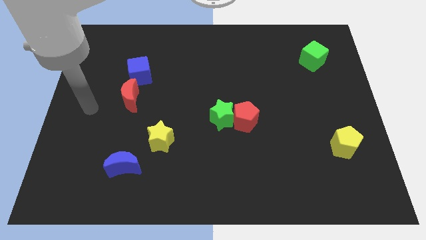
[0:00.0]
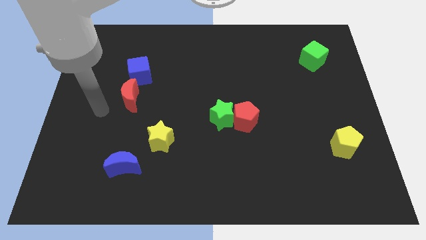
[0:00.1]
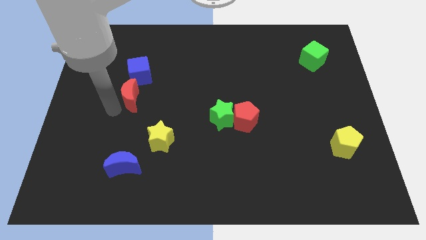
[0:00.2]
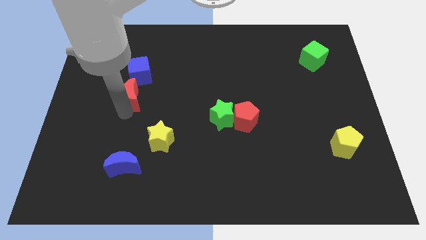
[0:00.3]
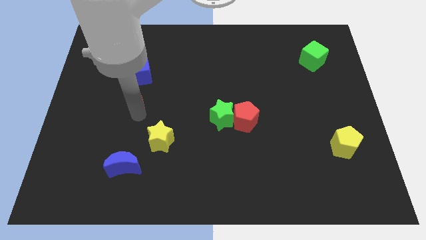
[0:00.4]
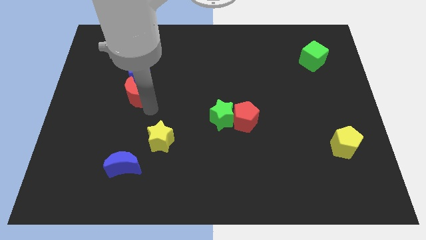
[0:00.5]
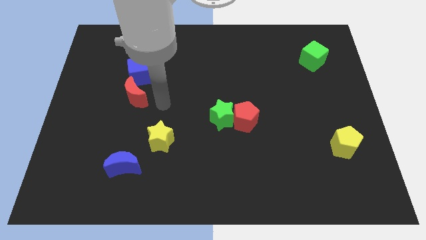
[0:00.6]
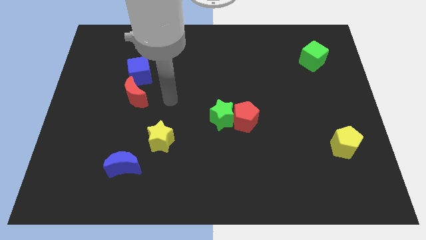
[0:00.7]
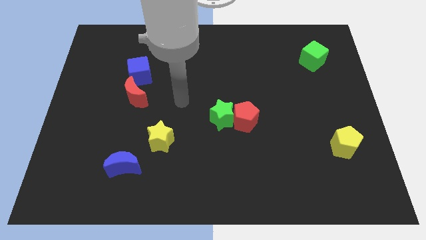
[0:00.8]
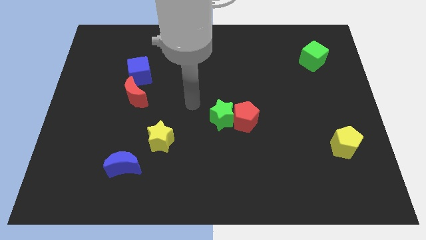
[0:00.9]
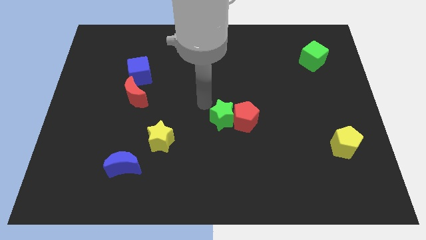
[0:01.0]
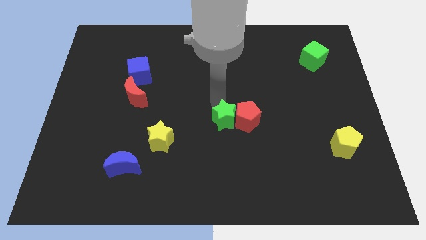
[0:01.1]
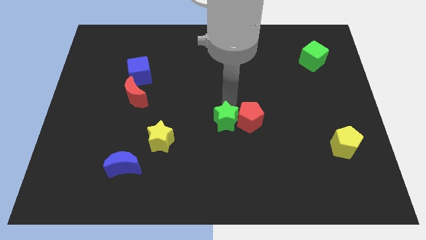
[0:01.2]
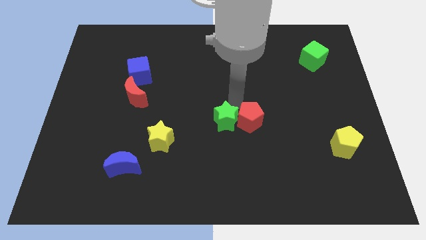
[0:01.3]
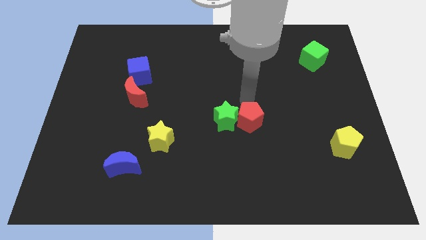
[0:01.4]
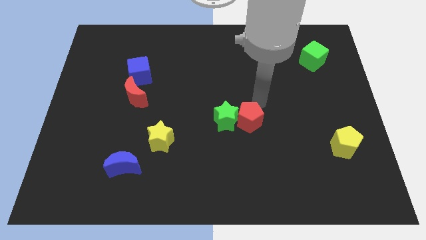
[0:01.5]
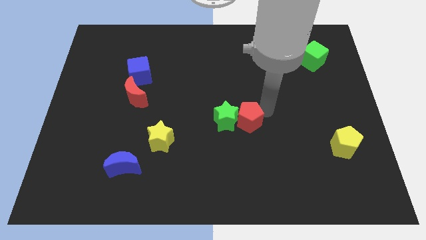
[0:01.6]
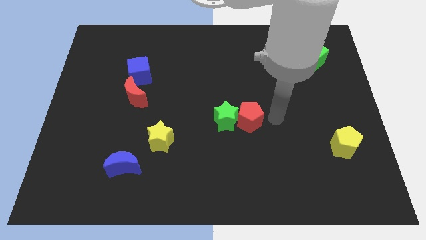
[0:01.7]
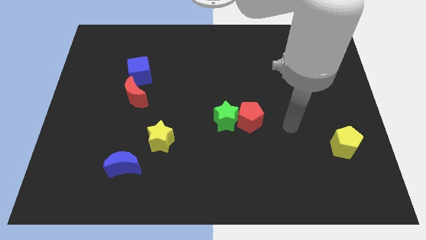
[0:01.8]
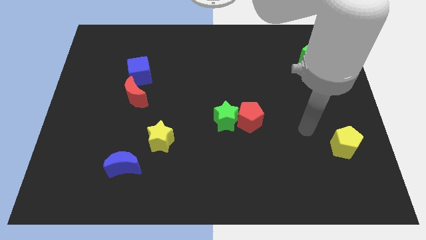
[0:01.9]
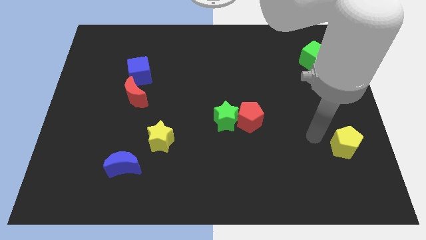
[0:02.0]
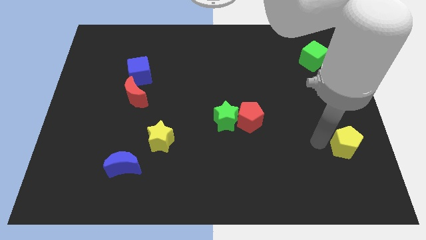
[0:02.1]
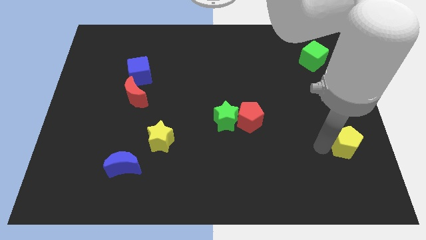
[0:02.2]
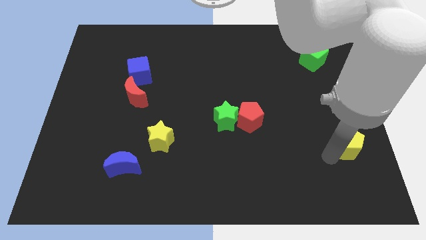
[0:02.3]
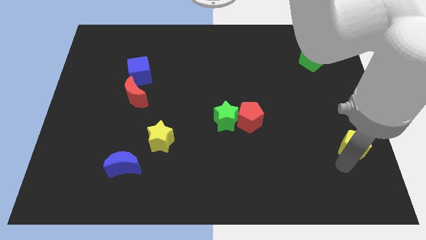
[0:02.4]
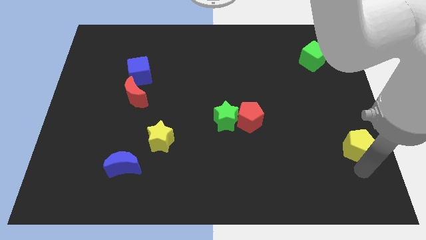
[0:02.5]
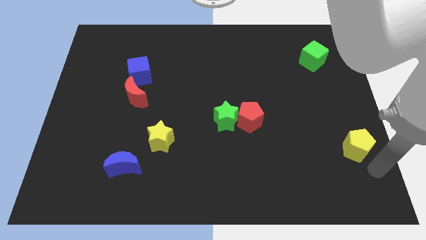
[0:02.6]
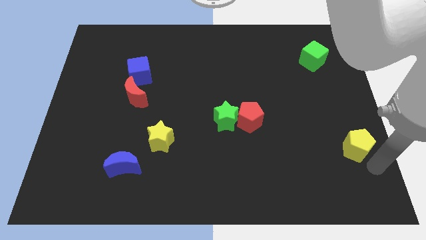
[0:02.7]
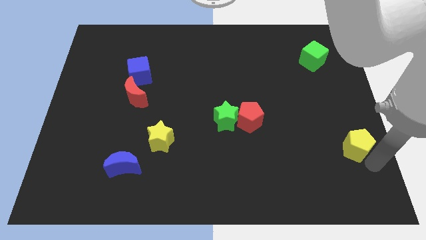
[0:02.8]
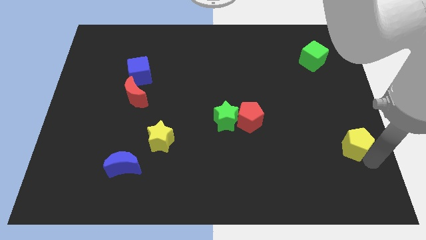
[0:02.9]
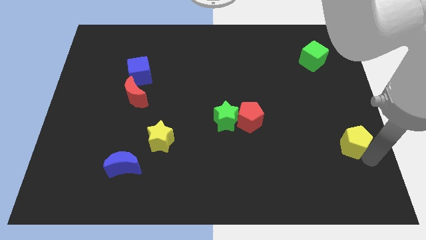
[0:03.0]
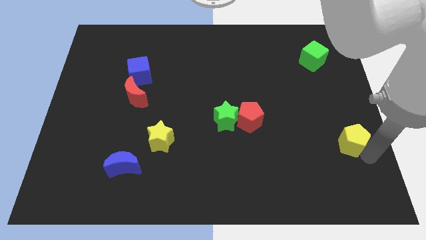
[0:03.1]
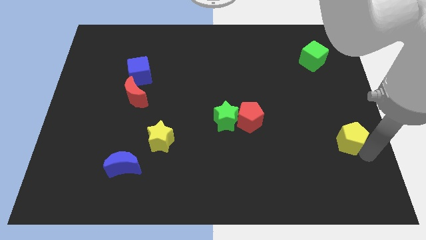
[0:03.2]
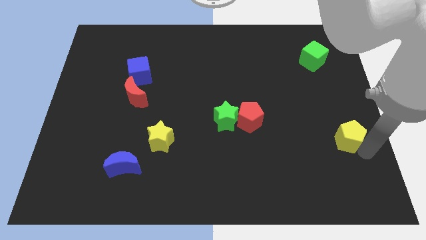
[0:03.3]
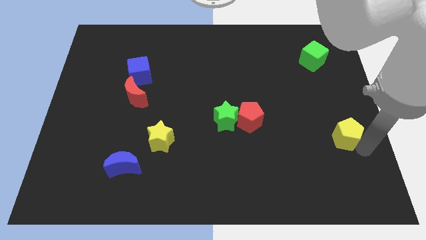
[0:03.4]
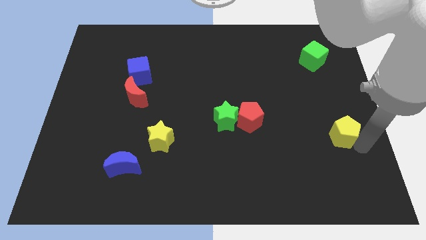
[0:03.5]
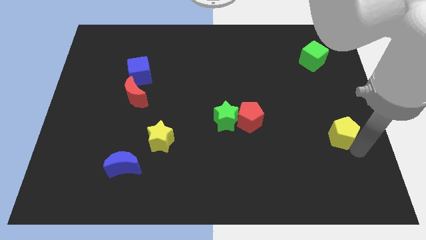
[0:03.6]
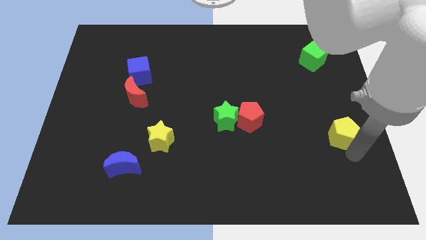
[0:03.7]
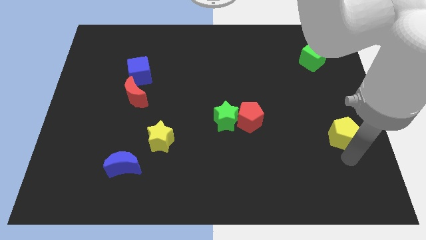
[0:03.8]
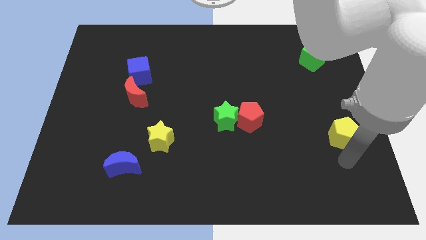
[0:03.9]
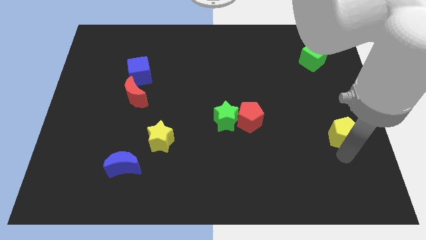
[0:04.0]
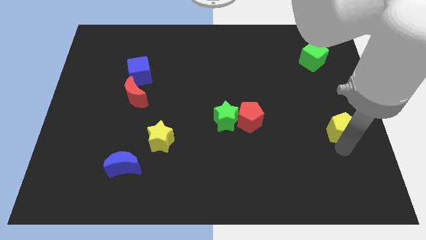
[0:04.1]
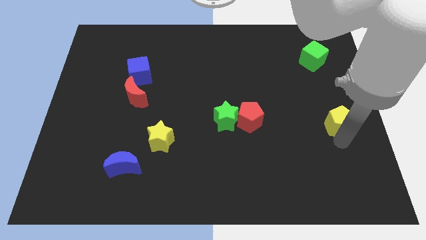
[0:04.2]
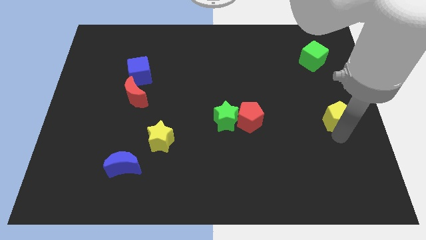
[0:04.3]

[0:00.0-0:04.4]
push the yellow pentagon up a little bit

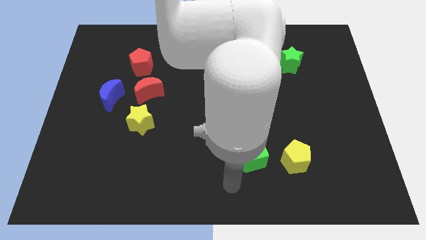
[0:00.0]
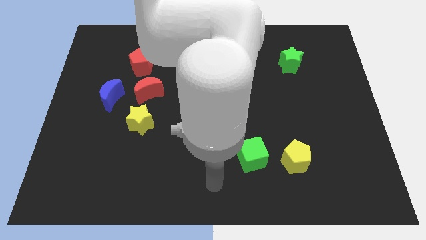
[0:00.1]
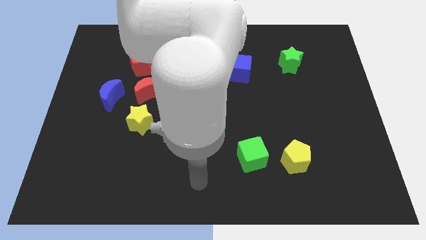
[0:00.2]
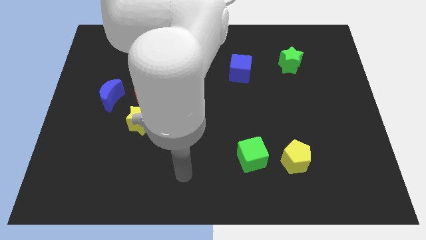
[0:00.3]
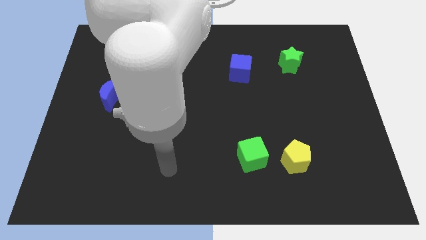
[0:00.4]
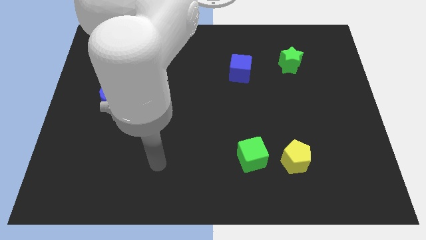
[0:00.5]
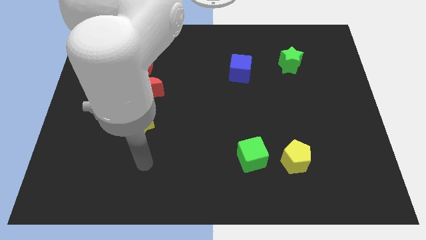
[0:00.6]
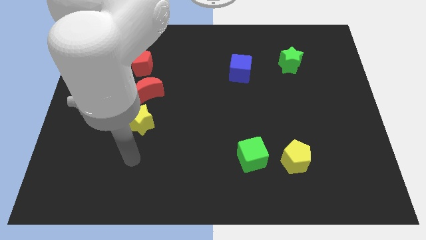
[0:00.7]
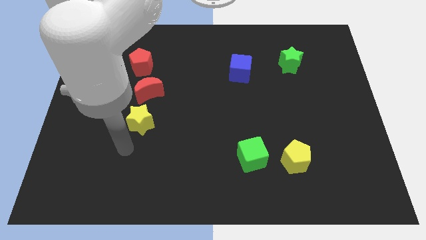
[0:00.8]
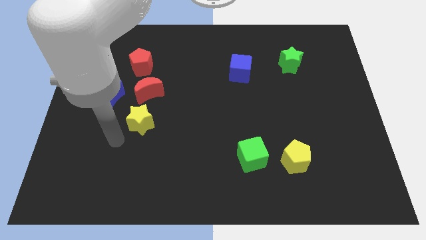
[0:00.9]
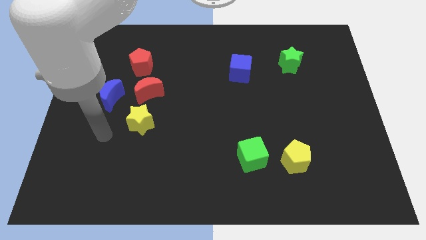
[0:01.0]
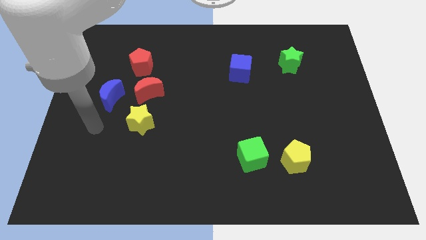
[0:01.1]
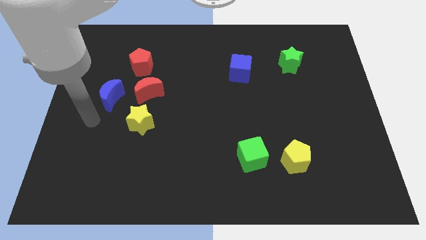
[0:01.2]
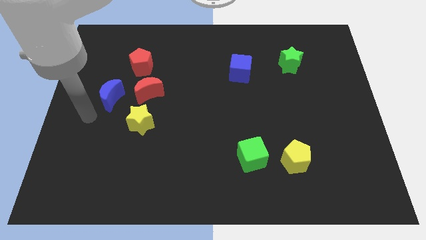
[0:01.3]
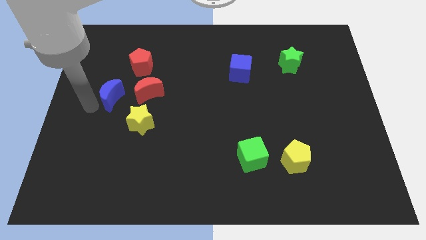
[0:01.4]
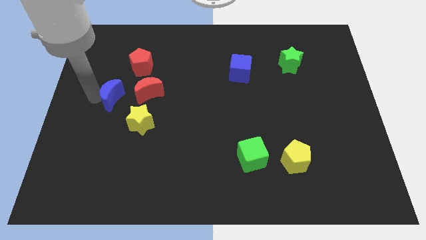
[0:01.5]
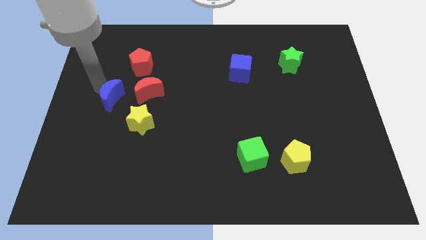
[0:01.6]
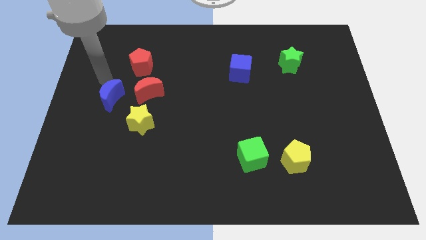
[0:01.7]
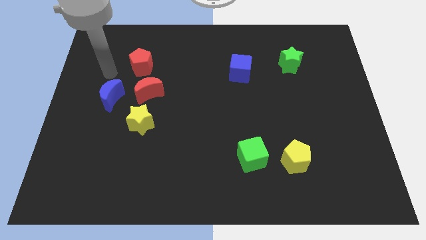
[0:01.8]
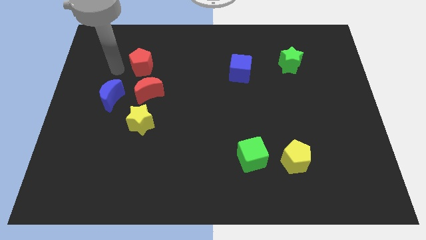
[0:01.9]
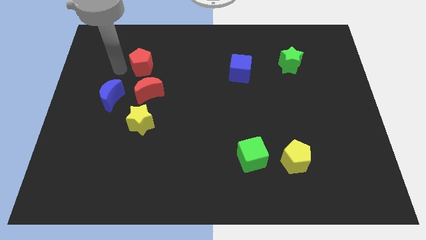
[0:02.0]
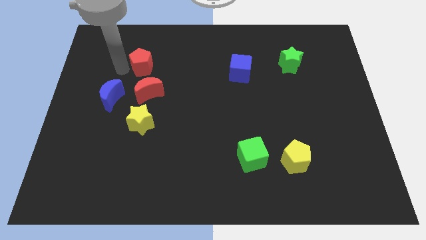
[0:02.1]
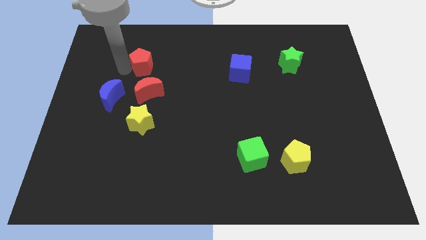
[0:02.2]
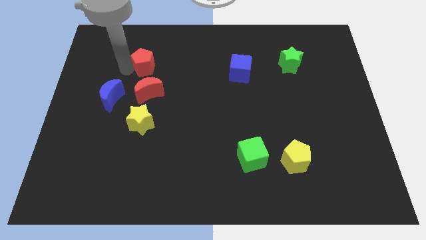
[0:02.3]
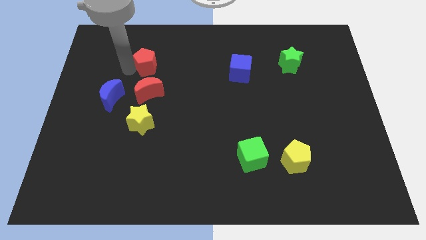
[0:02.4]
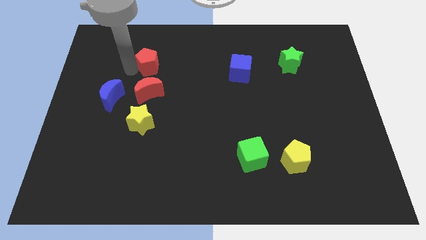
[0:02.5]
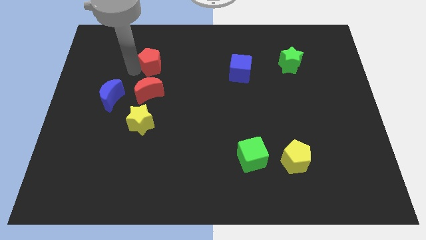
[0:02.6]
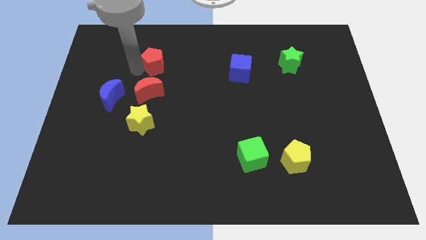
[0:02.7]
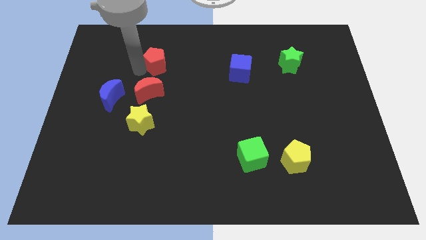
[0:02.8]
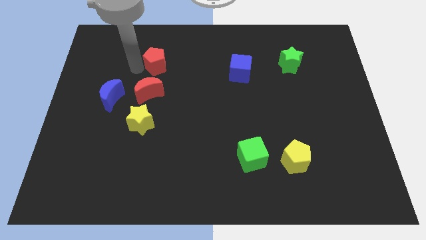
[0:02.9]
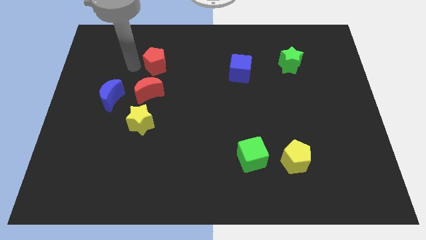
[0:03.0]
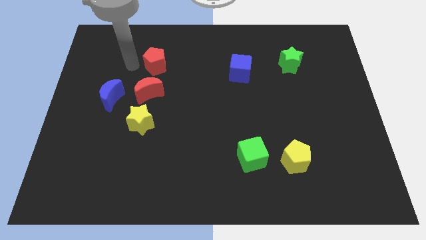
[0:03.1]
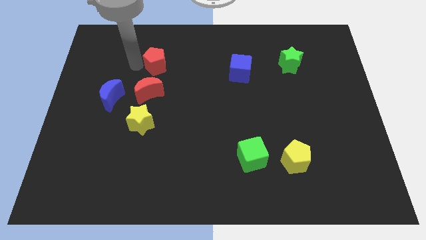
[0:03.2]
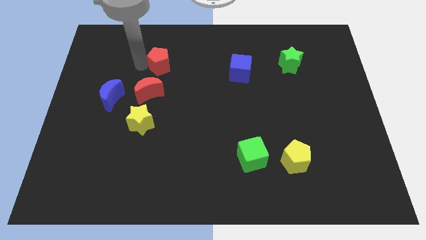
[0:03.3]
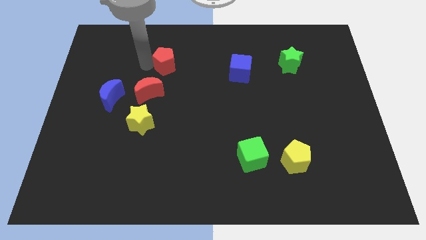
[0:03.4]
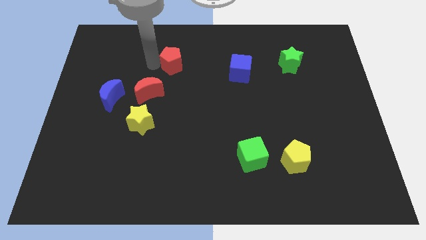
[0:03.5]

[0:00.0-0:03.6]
push the red pentagon to the right a bit
